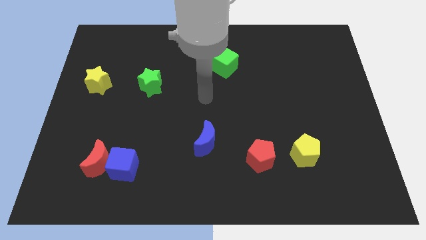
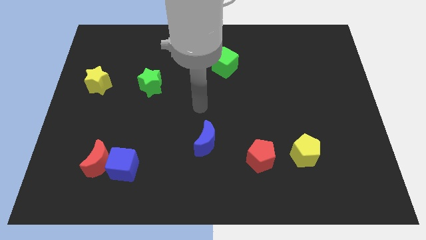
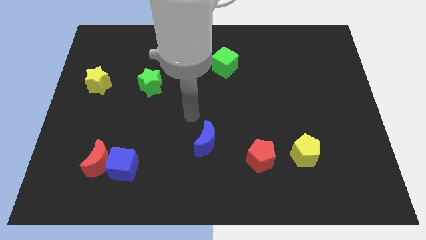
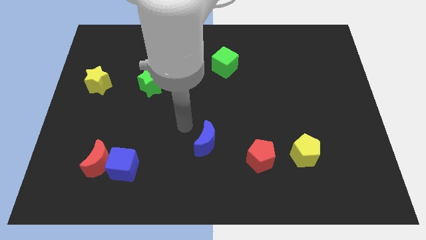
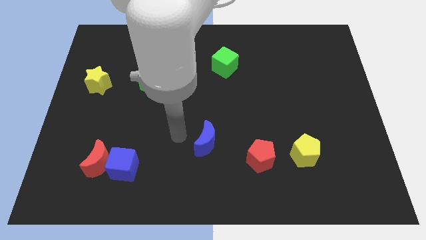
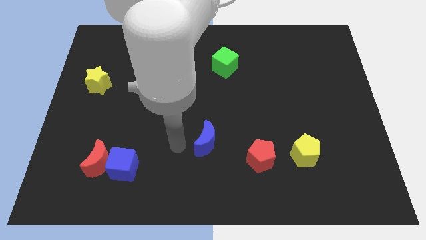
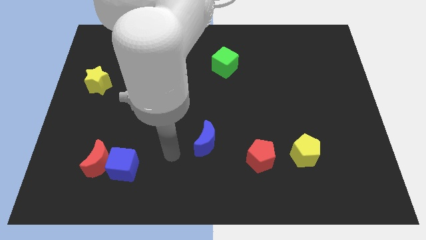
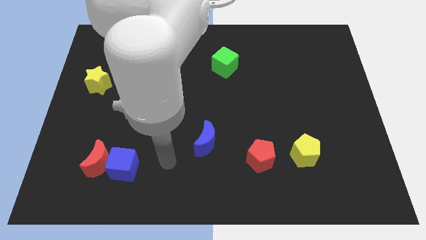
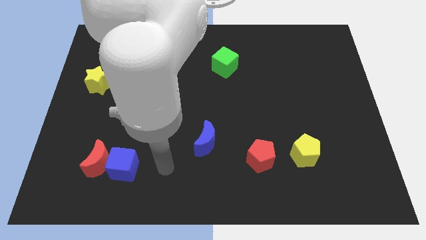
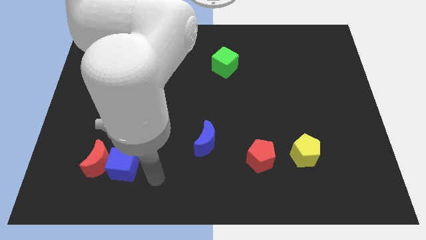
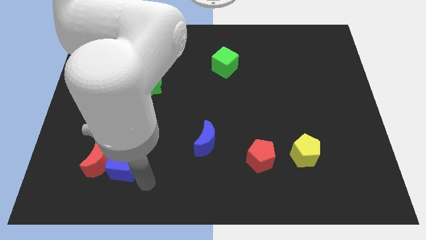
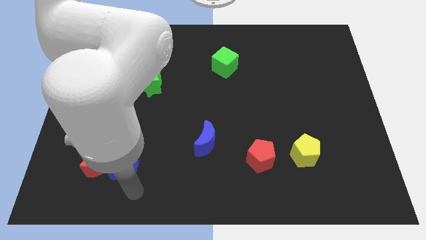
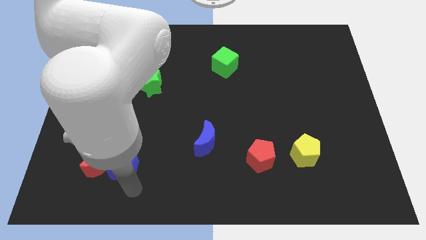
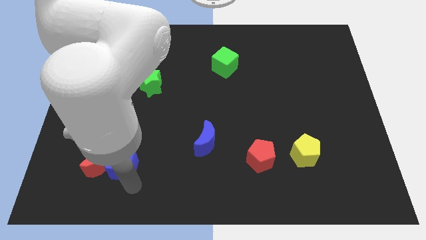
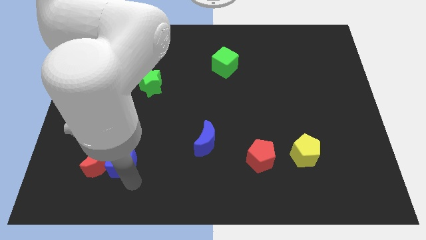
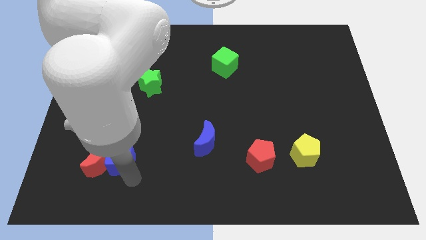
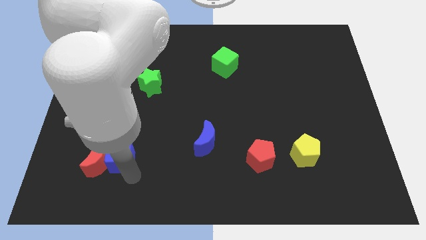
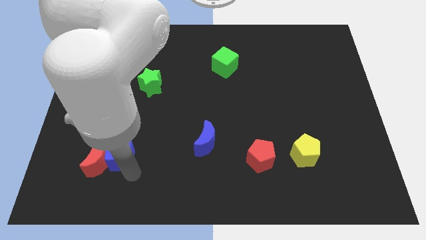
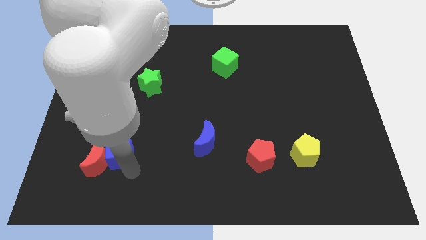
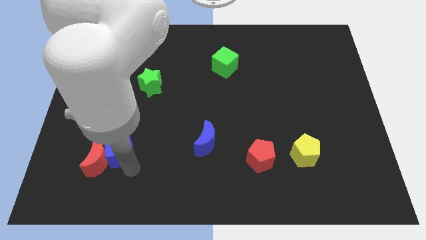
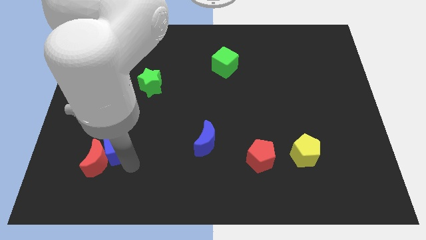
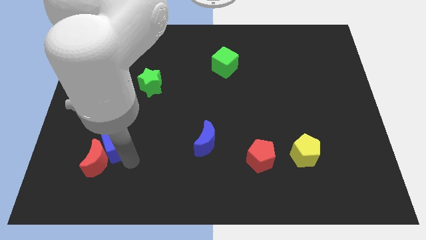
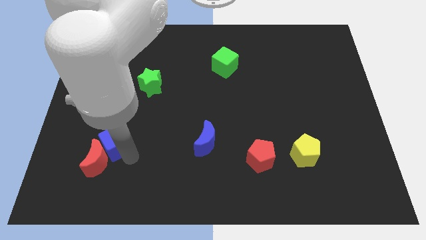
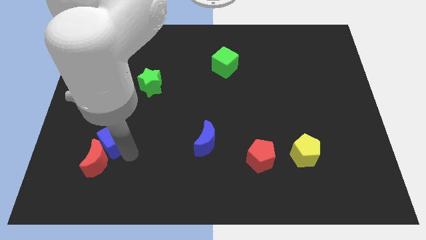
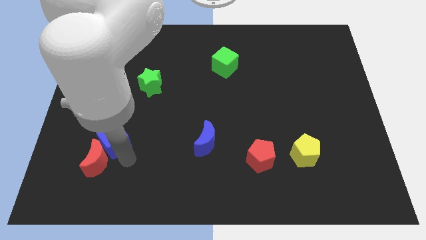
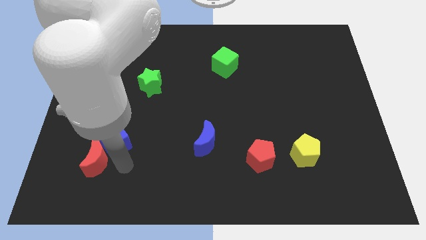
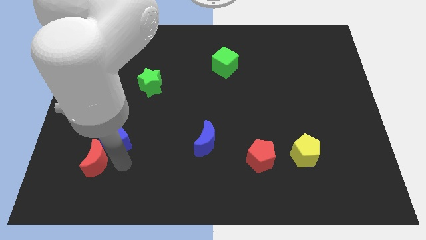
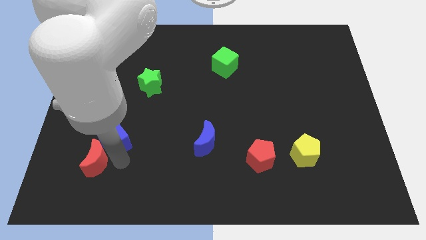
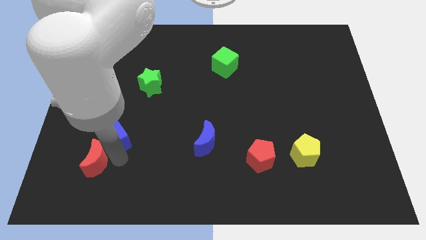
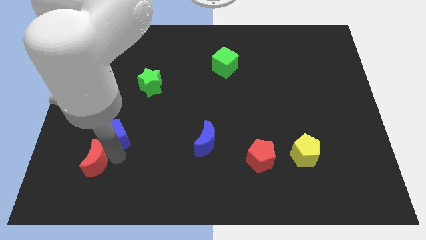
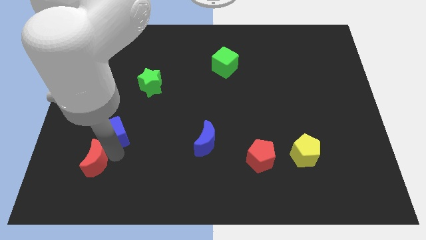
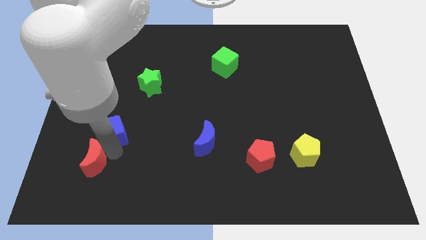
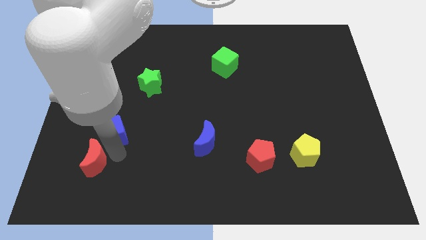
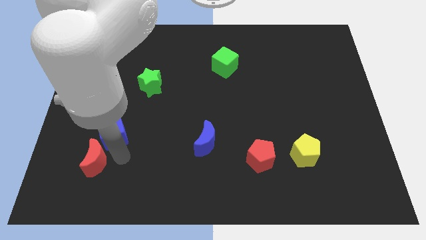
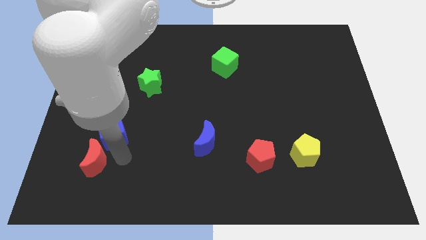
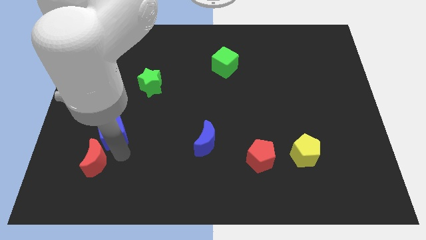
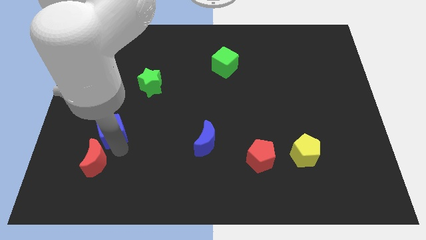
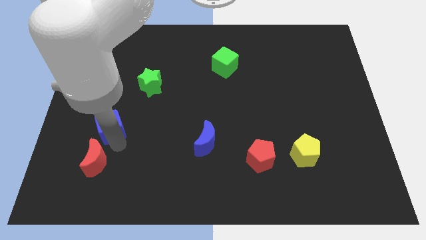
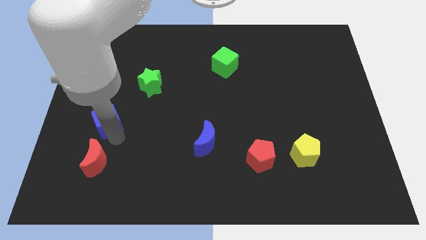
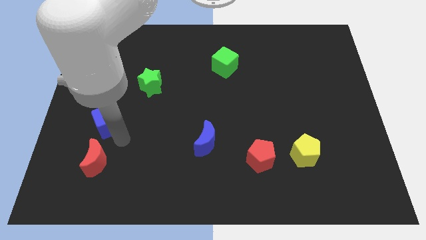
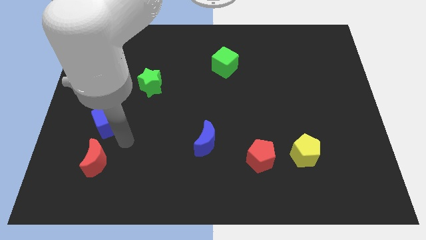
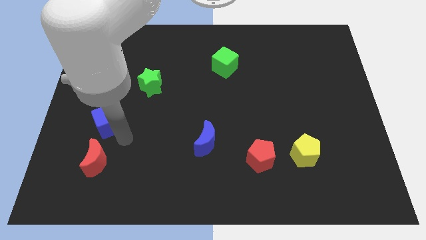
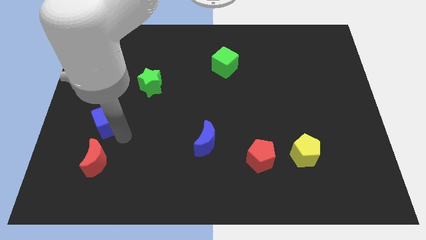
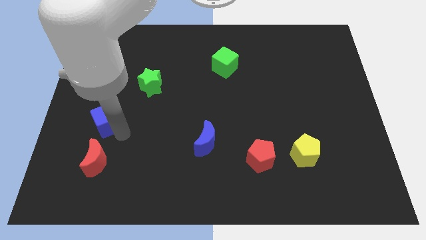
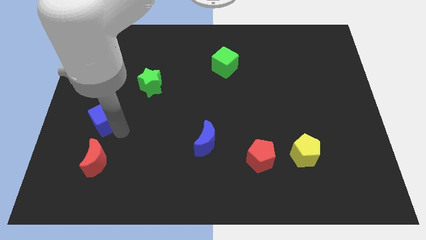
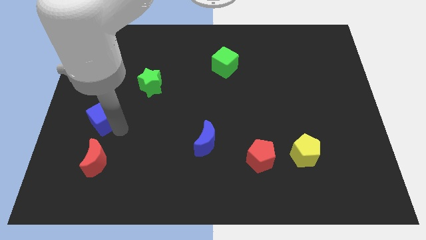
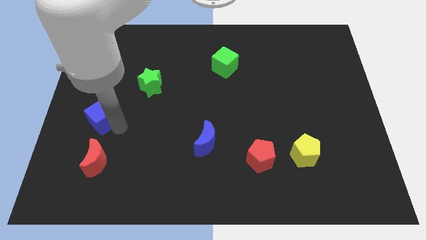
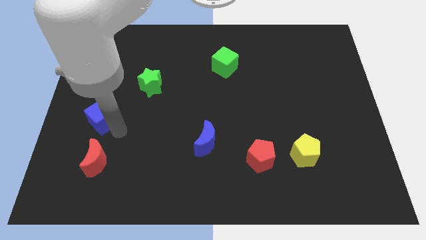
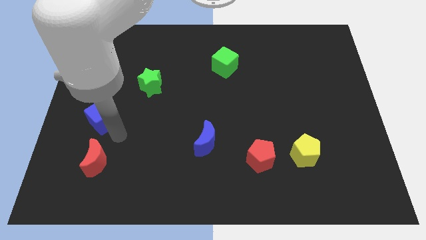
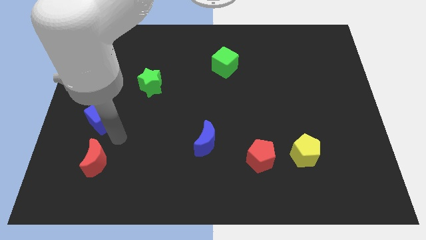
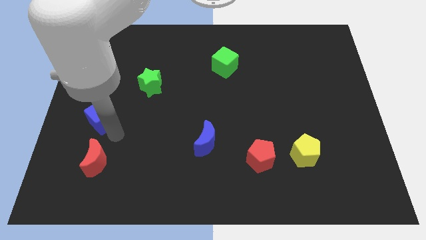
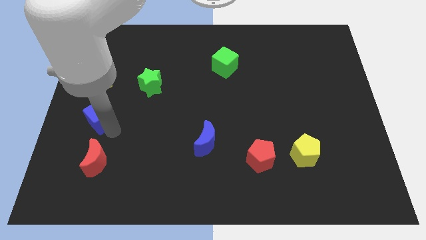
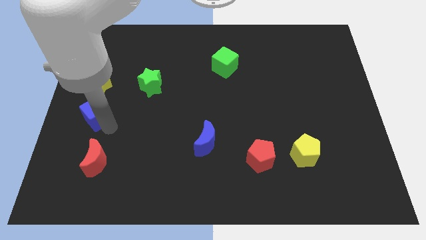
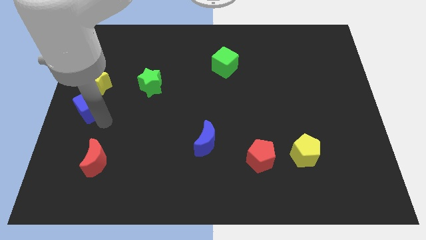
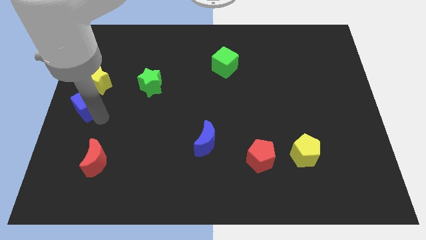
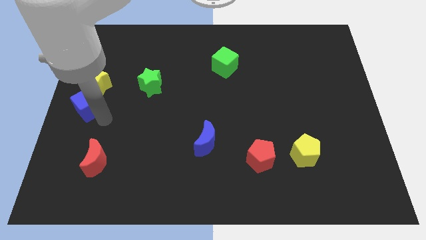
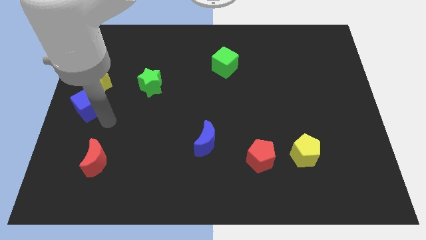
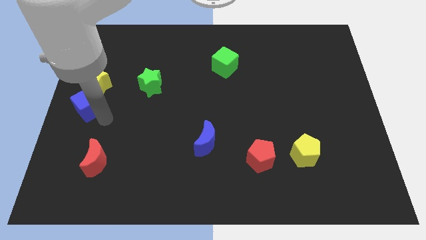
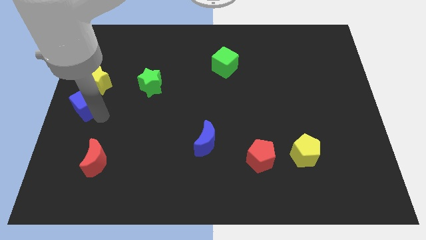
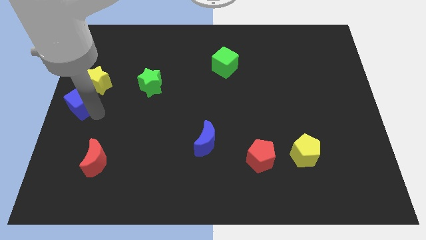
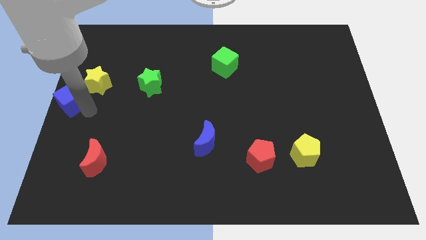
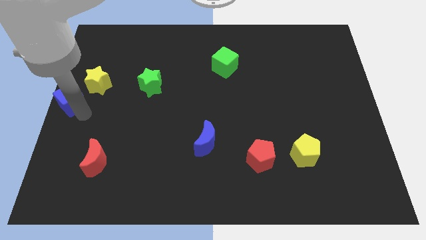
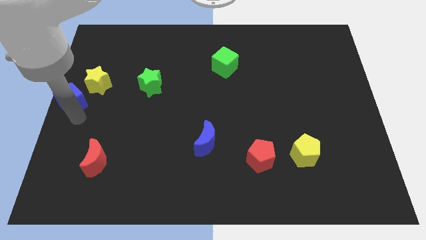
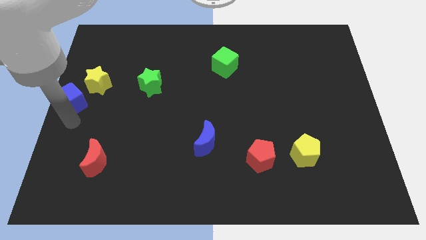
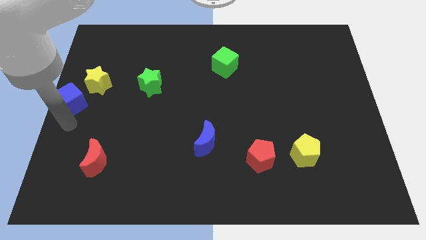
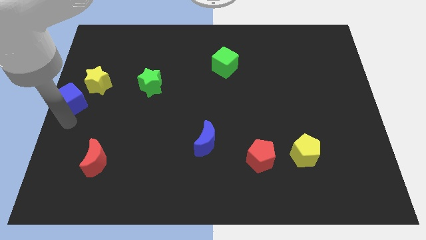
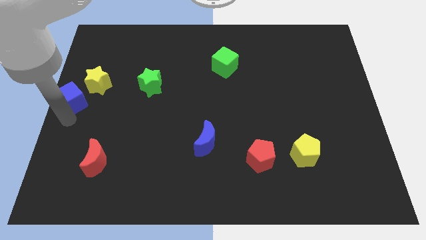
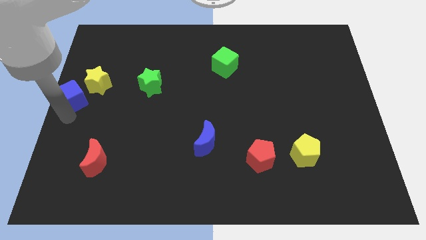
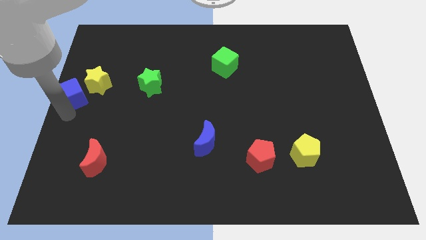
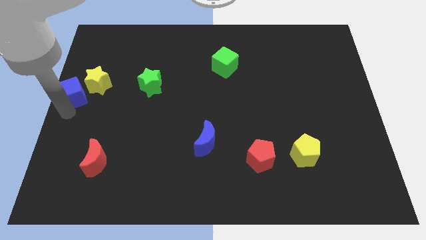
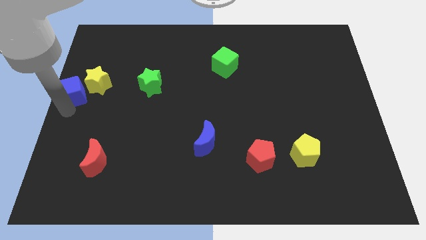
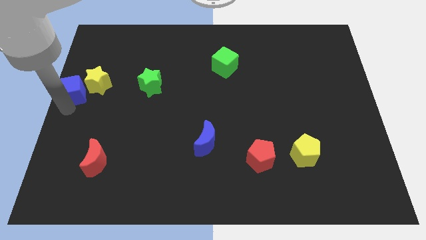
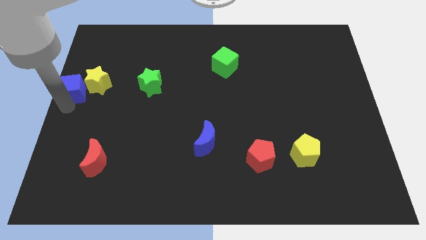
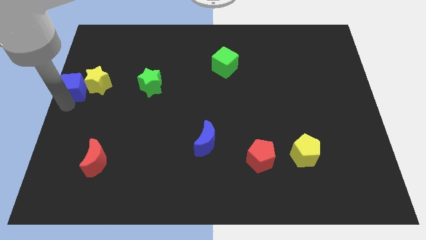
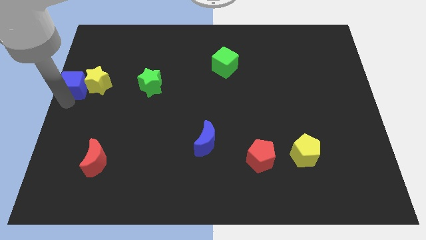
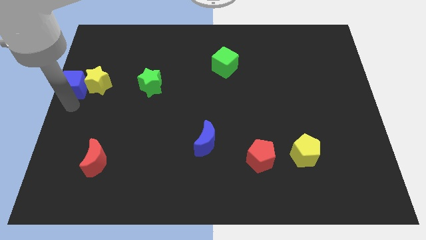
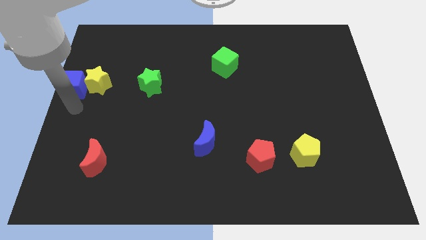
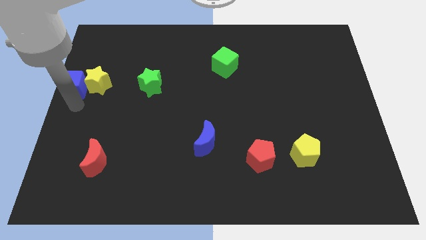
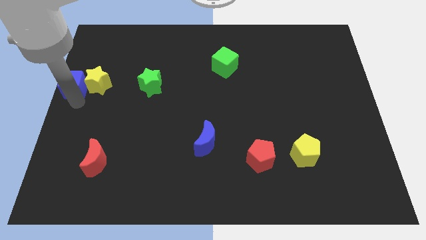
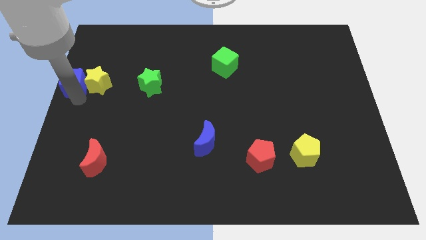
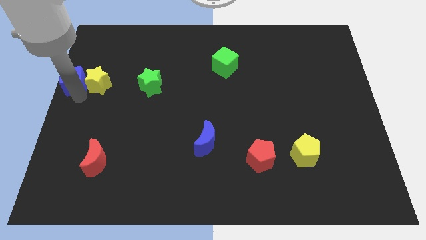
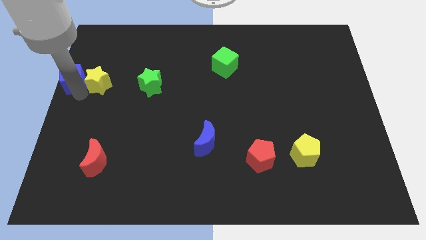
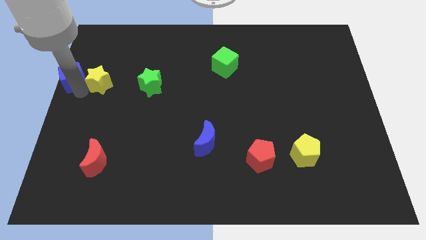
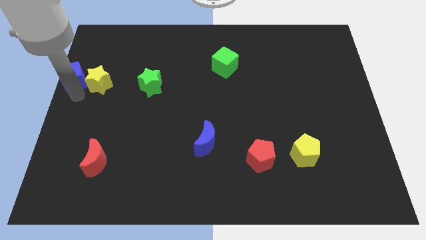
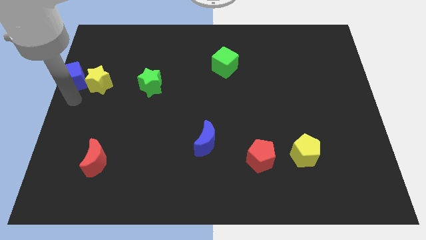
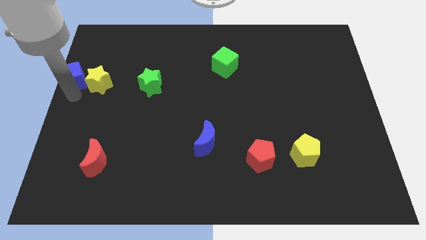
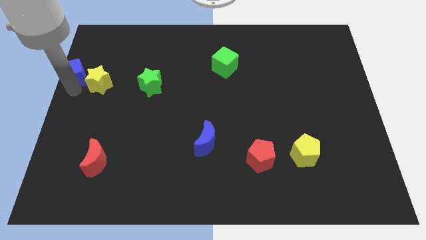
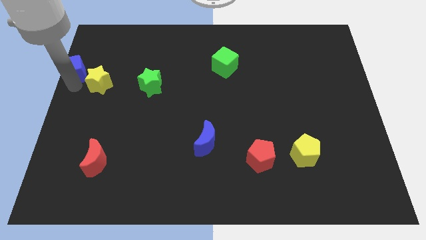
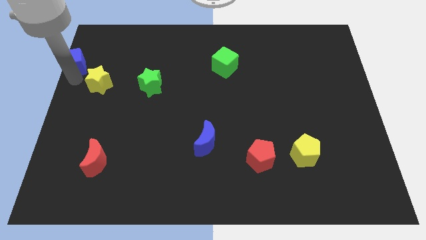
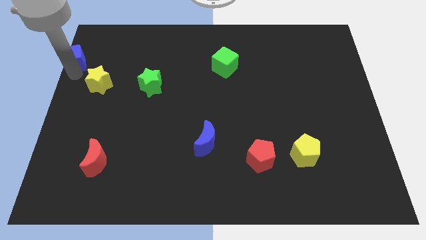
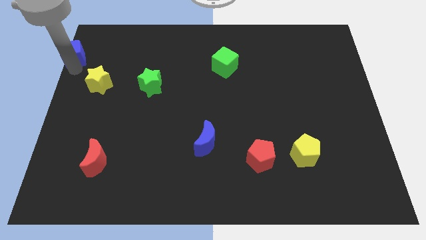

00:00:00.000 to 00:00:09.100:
put the blue cube to the top left
